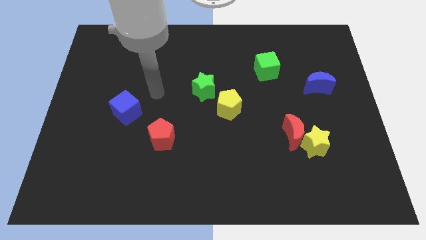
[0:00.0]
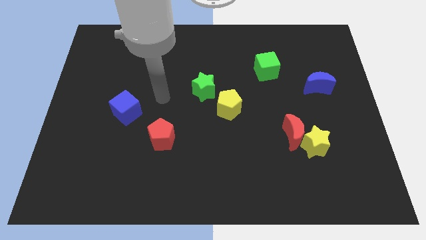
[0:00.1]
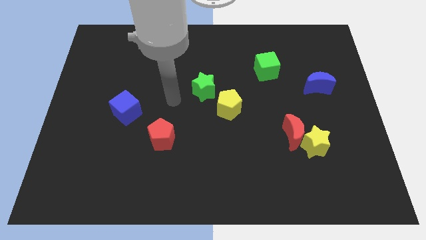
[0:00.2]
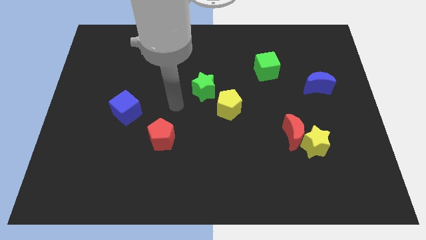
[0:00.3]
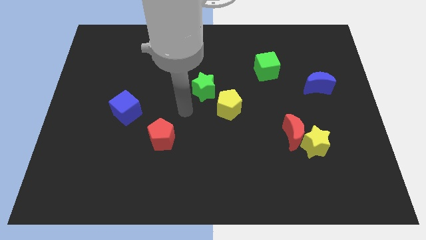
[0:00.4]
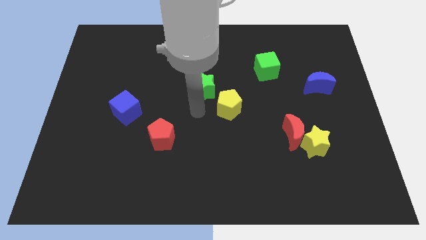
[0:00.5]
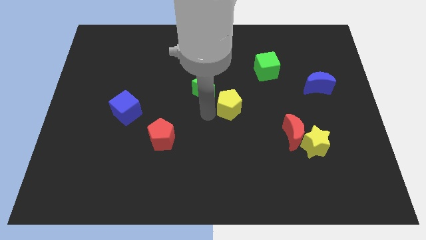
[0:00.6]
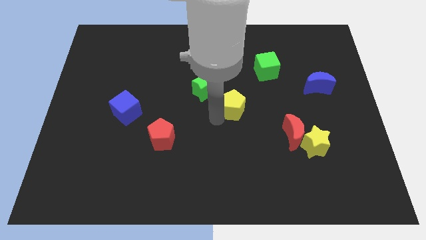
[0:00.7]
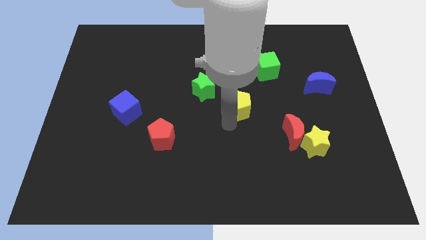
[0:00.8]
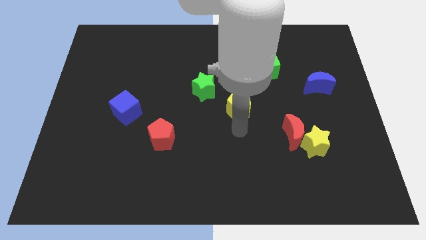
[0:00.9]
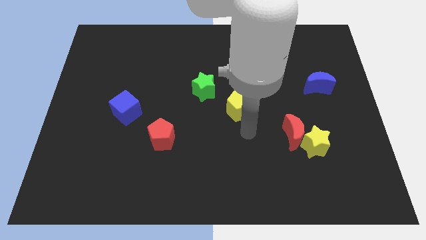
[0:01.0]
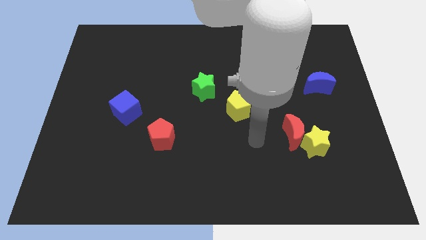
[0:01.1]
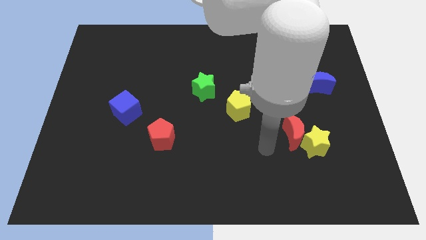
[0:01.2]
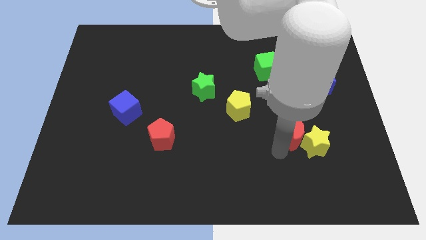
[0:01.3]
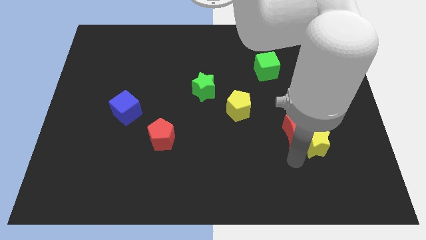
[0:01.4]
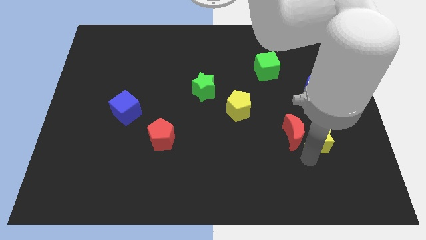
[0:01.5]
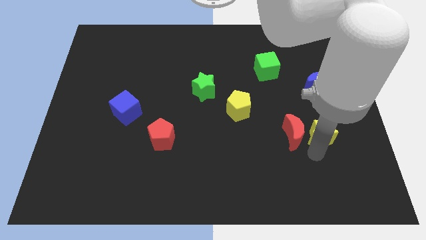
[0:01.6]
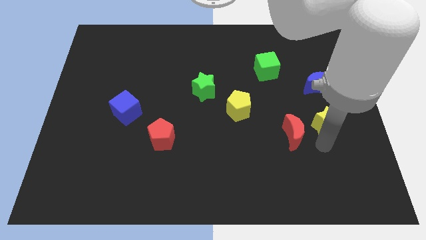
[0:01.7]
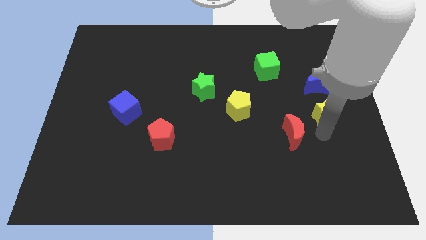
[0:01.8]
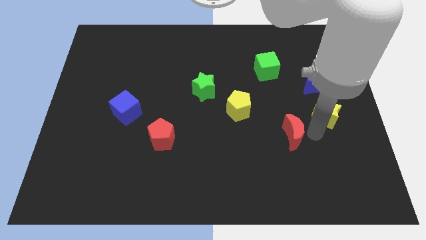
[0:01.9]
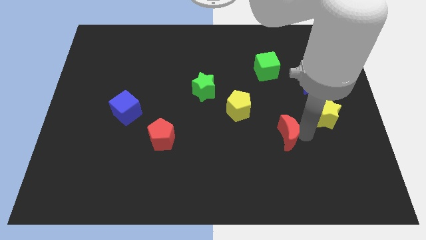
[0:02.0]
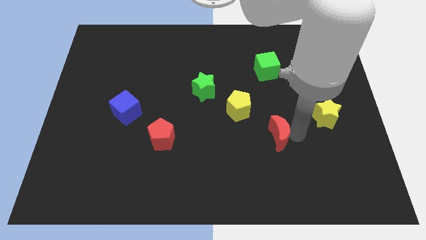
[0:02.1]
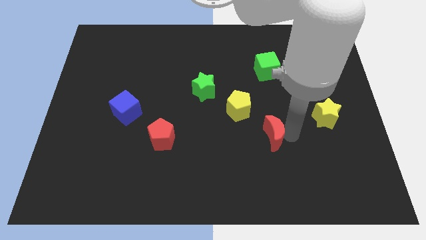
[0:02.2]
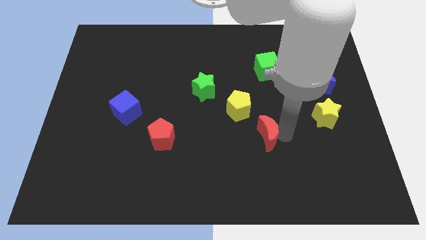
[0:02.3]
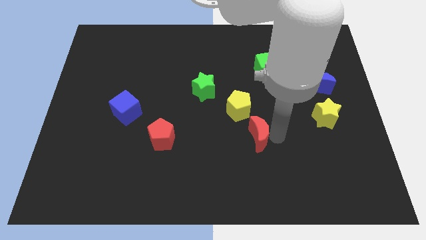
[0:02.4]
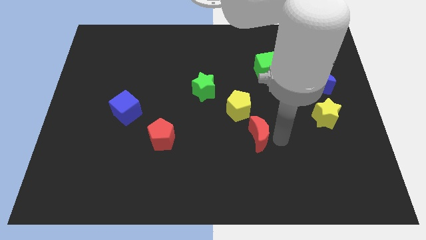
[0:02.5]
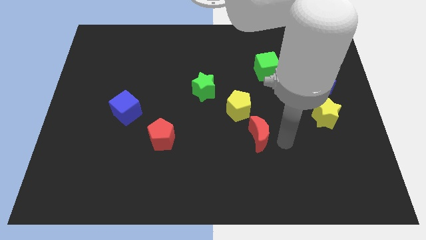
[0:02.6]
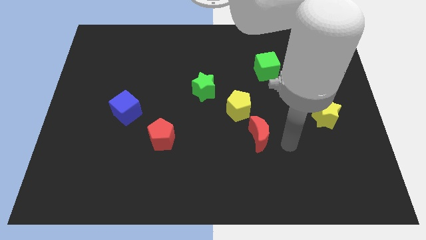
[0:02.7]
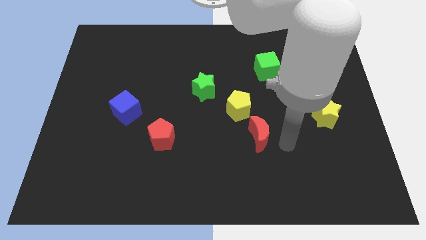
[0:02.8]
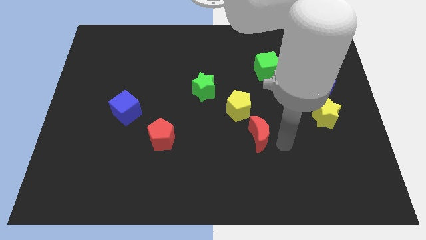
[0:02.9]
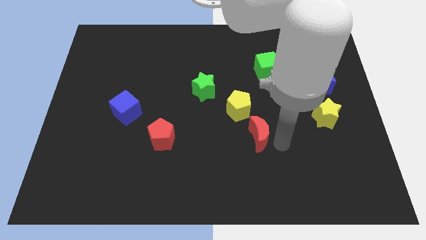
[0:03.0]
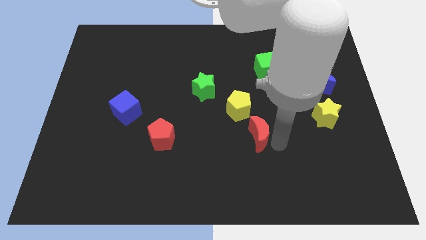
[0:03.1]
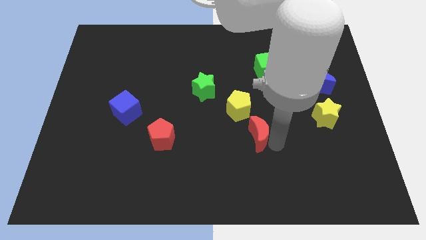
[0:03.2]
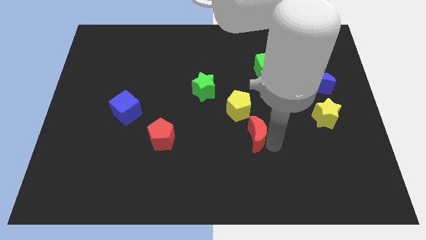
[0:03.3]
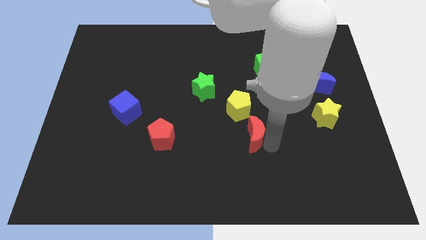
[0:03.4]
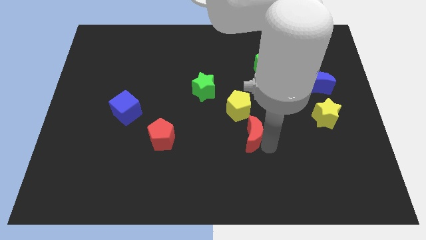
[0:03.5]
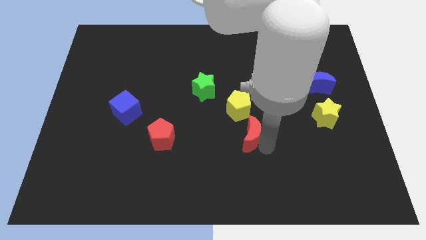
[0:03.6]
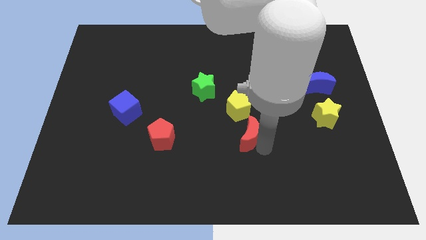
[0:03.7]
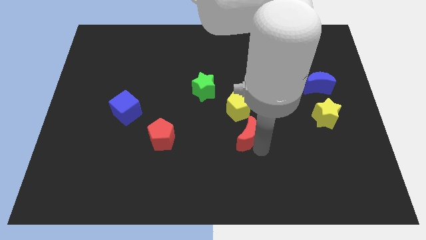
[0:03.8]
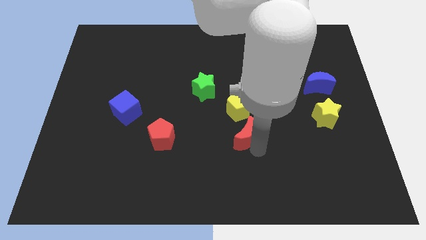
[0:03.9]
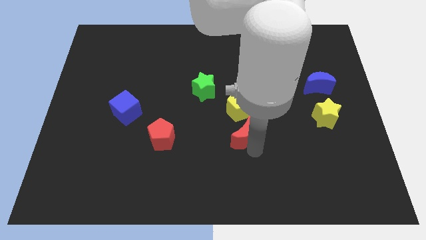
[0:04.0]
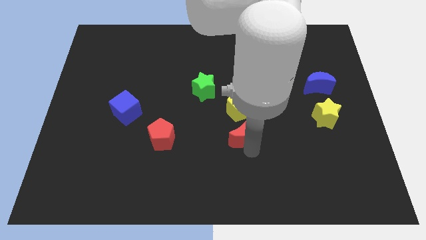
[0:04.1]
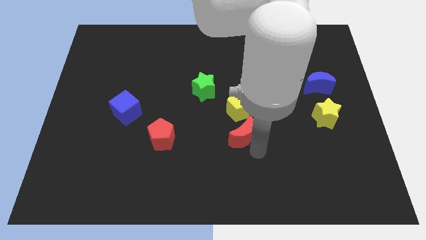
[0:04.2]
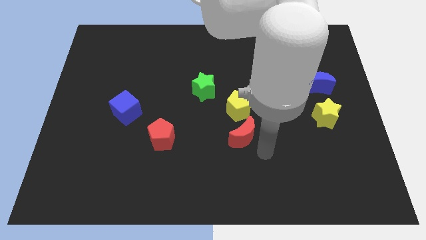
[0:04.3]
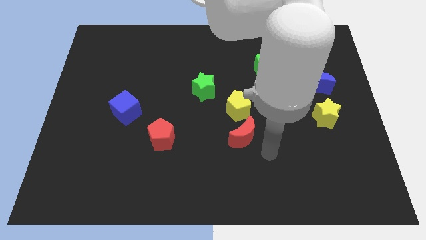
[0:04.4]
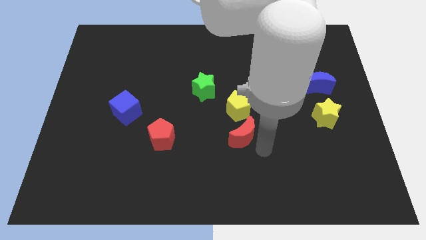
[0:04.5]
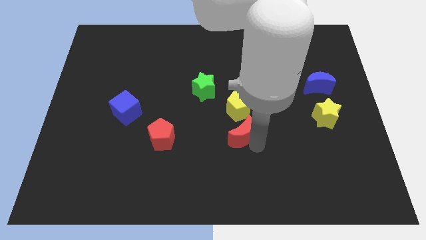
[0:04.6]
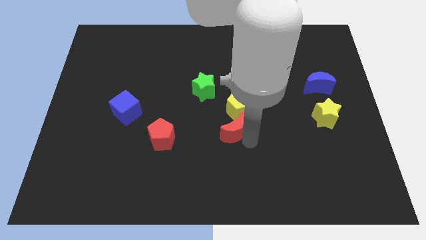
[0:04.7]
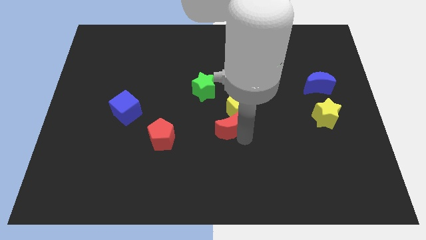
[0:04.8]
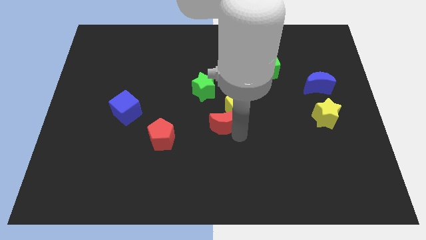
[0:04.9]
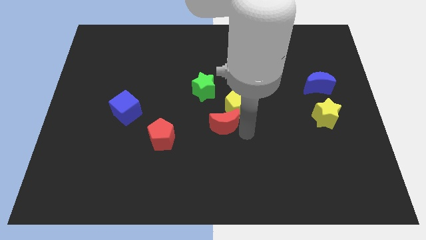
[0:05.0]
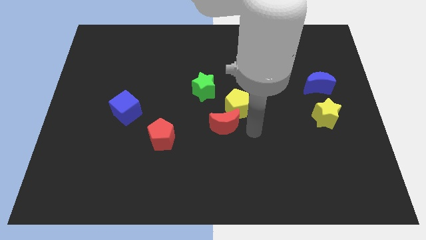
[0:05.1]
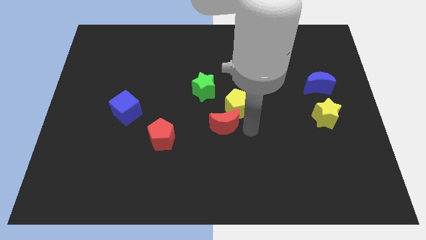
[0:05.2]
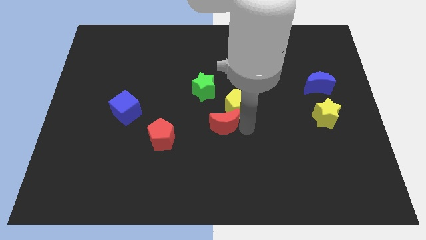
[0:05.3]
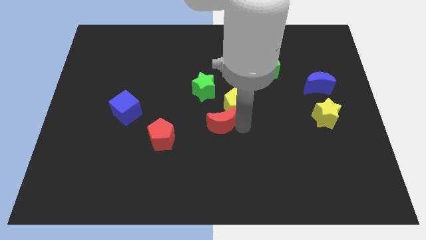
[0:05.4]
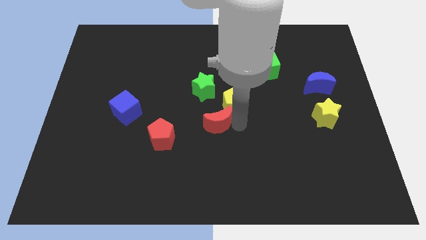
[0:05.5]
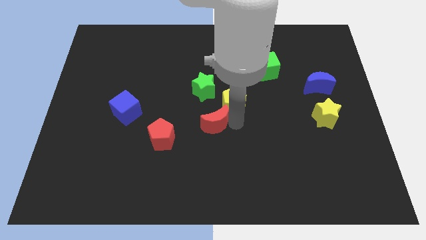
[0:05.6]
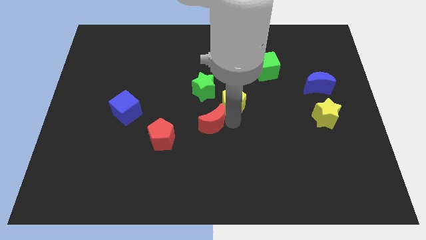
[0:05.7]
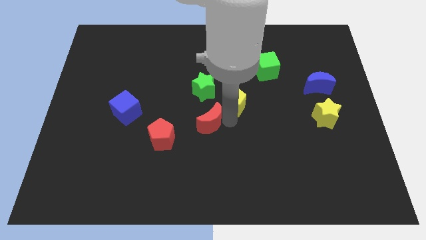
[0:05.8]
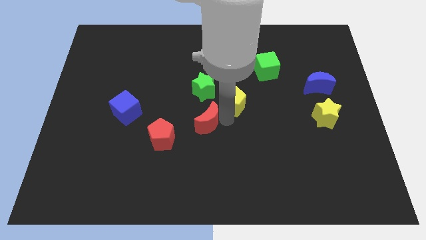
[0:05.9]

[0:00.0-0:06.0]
move the red moon to the top right of the red pentagon

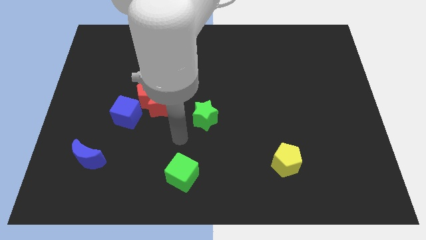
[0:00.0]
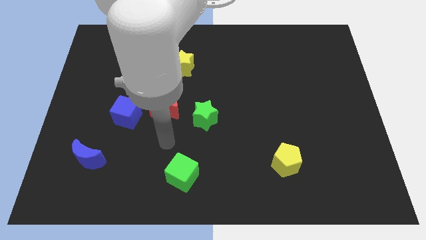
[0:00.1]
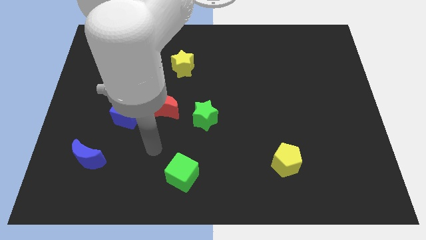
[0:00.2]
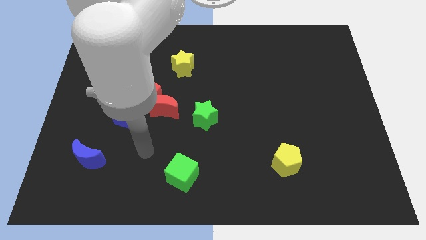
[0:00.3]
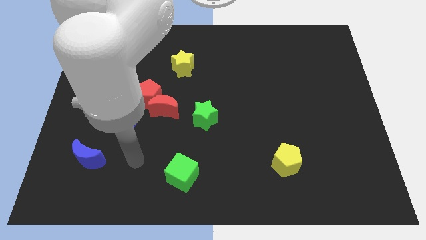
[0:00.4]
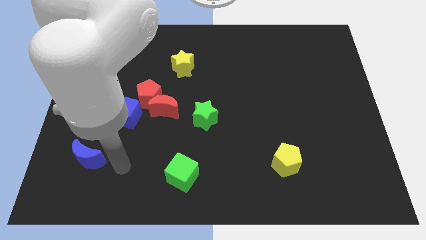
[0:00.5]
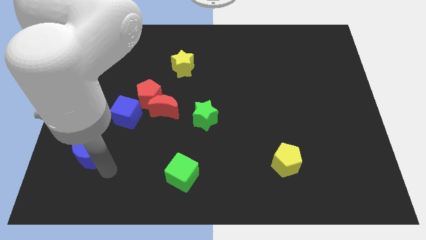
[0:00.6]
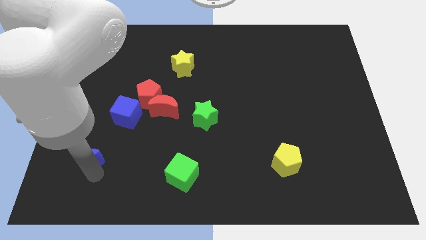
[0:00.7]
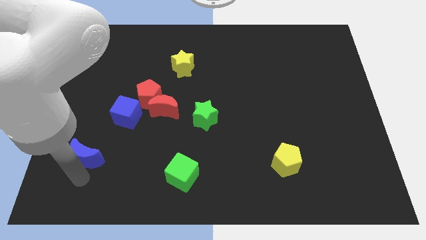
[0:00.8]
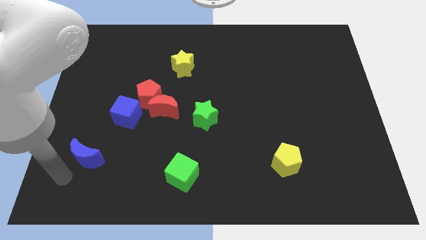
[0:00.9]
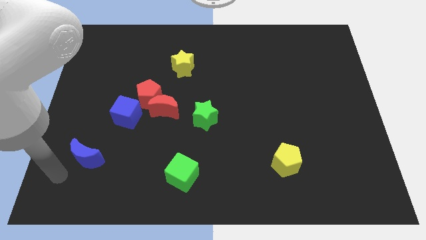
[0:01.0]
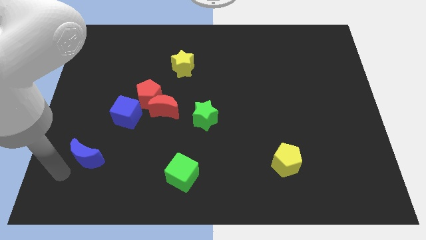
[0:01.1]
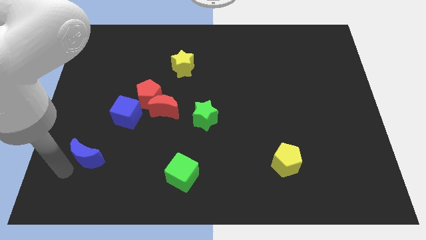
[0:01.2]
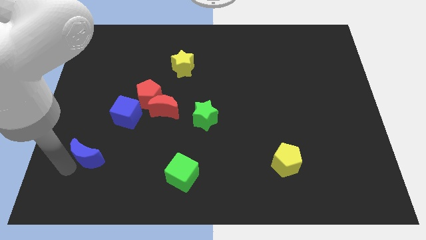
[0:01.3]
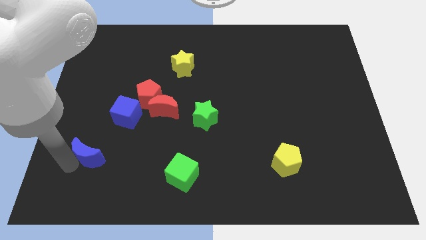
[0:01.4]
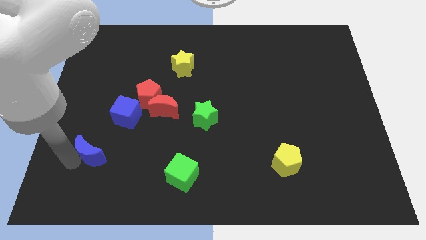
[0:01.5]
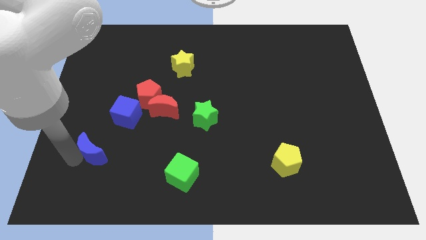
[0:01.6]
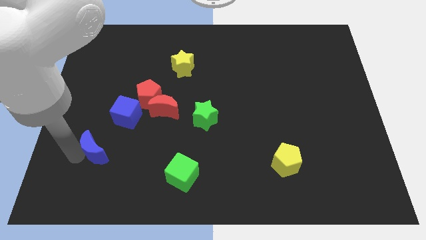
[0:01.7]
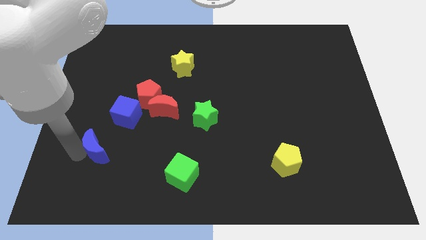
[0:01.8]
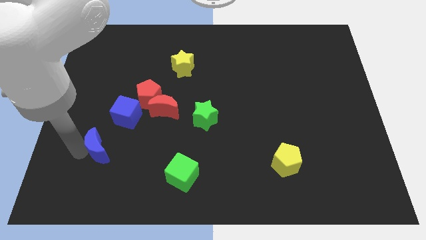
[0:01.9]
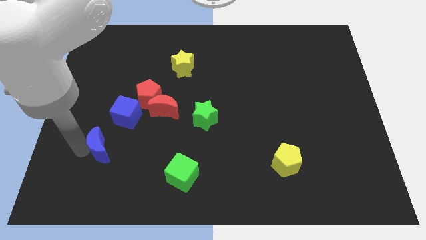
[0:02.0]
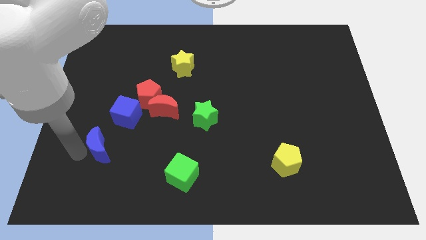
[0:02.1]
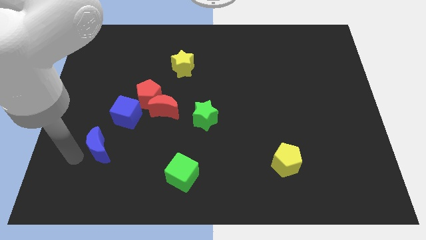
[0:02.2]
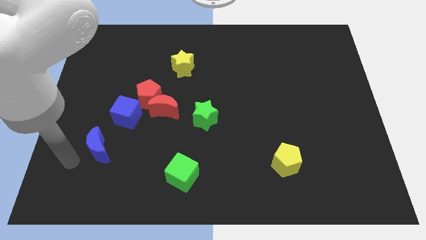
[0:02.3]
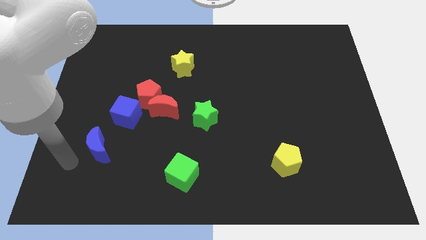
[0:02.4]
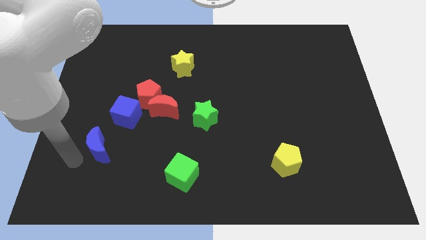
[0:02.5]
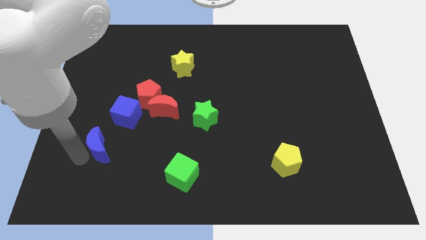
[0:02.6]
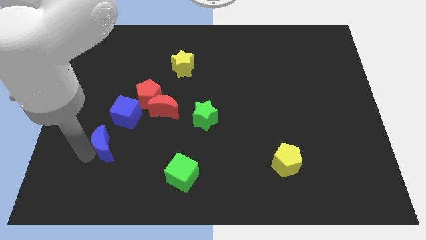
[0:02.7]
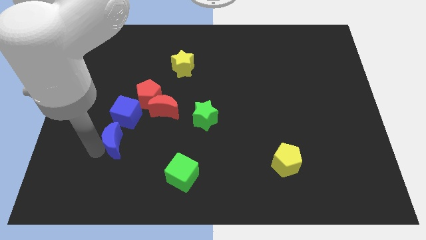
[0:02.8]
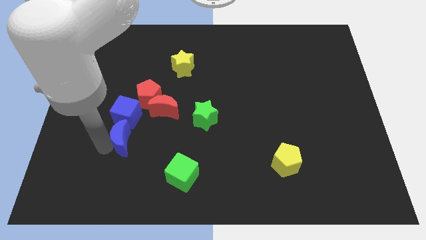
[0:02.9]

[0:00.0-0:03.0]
push the blue moon below the red pentagon
